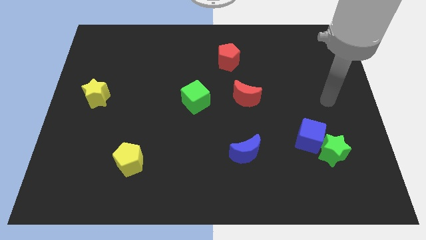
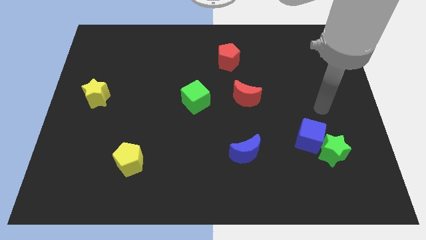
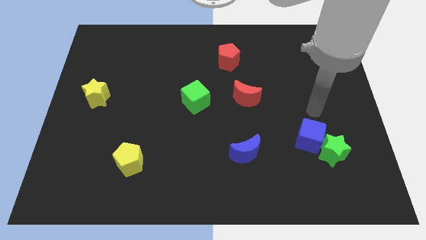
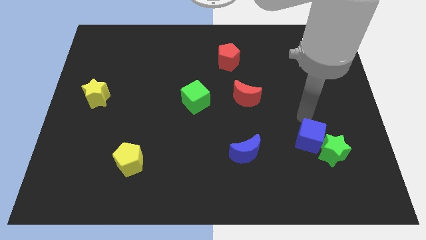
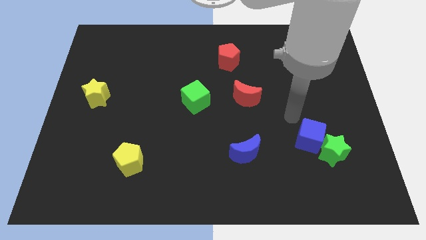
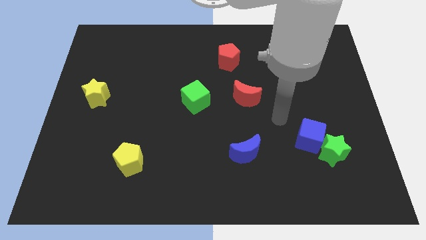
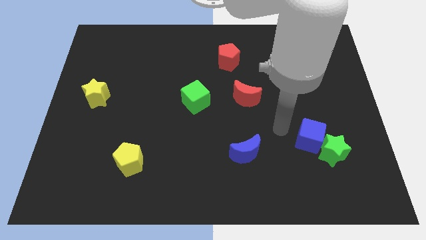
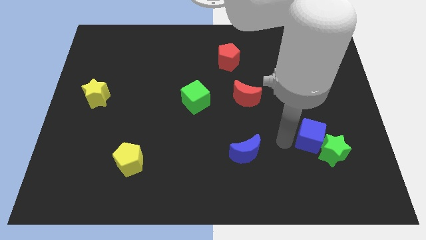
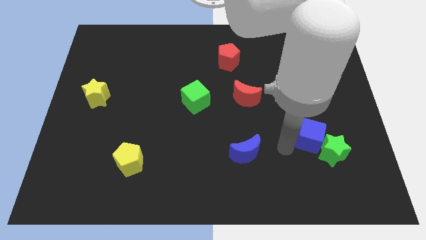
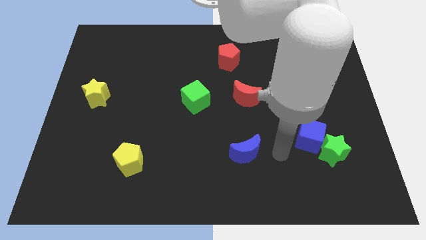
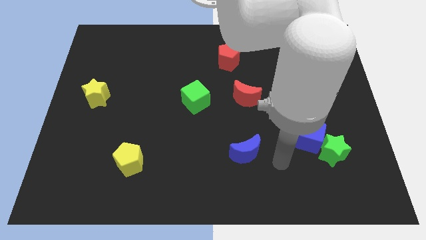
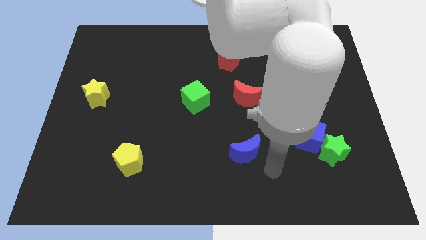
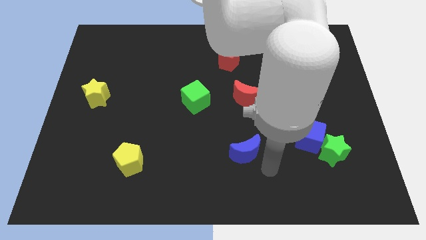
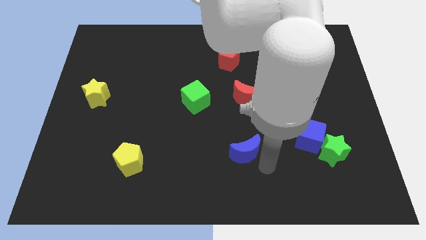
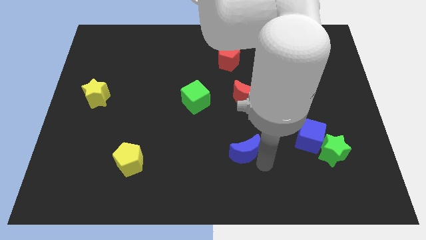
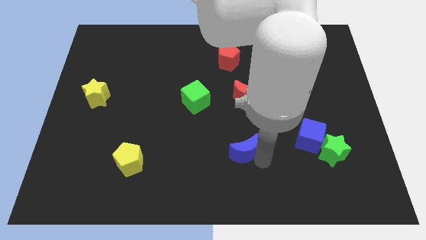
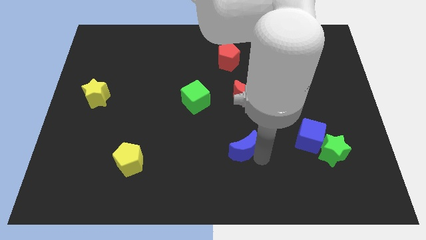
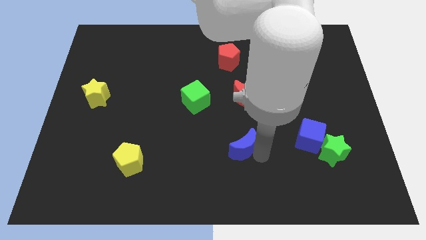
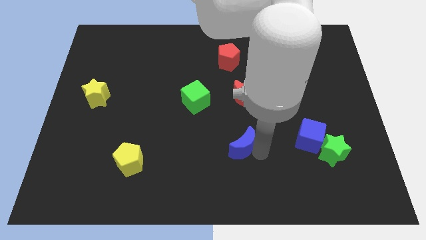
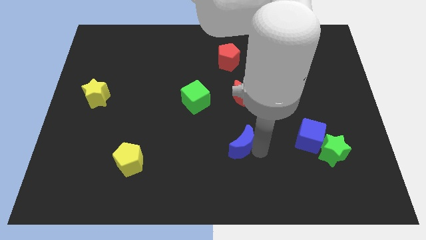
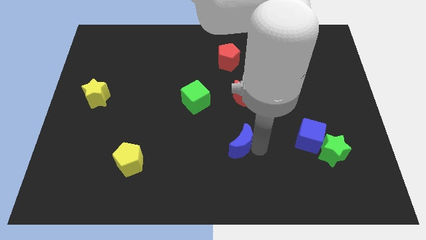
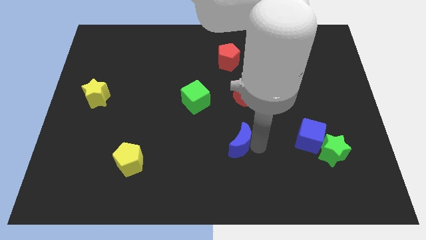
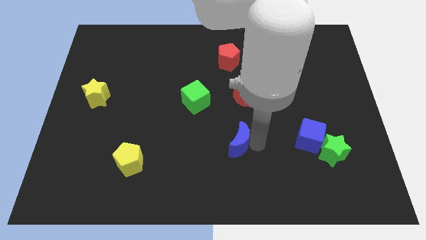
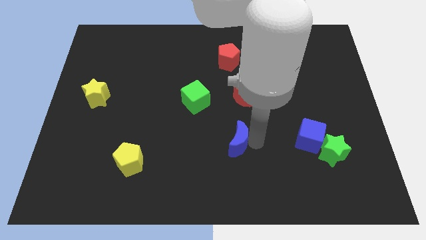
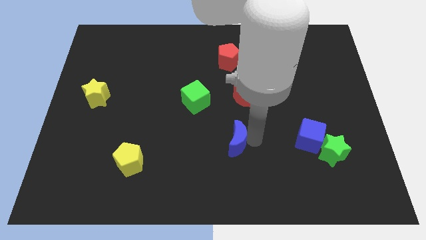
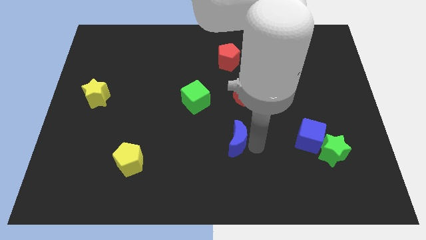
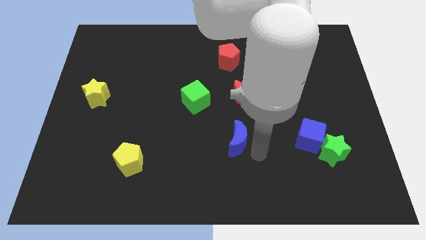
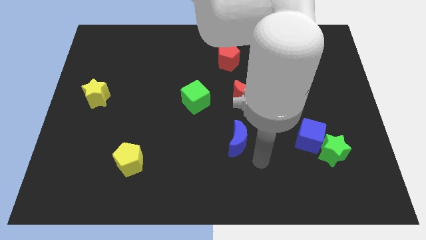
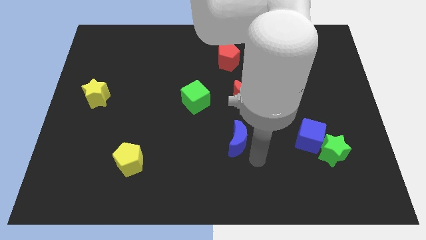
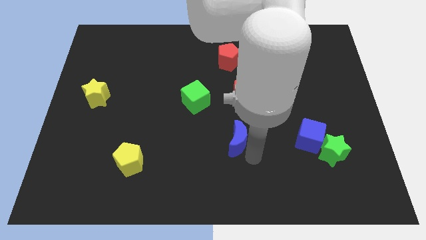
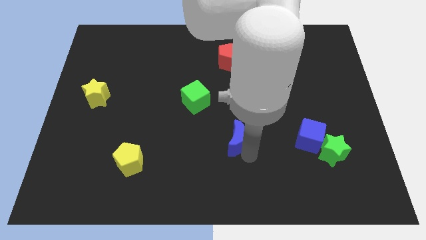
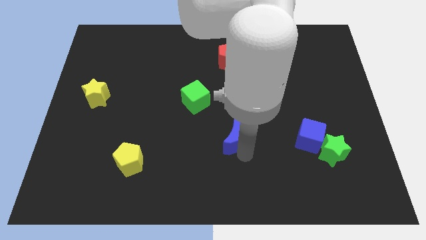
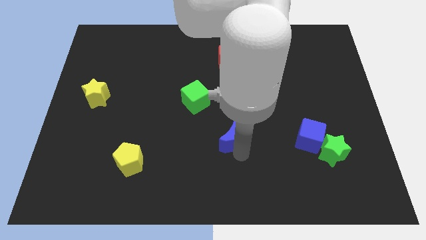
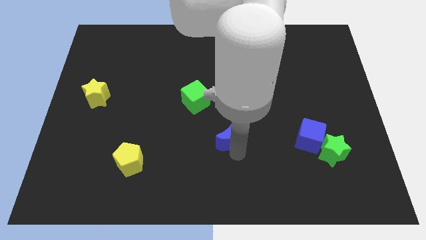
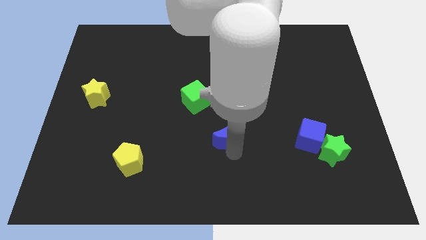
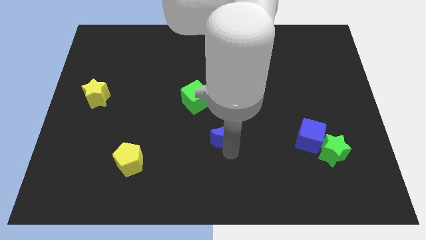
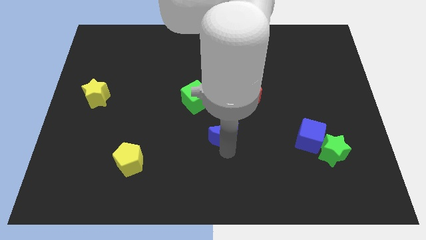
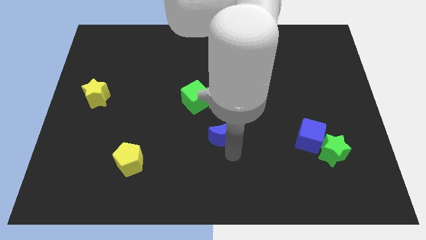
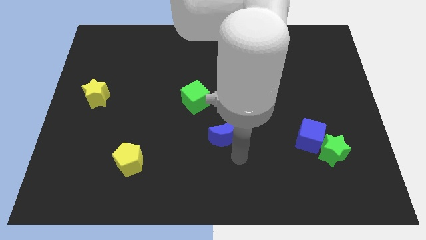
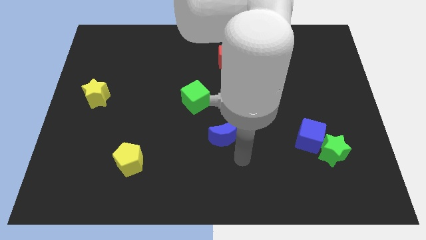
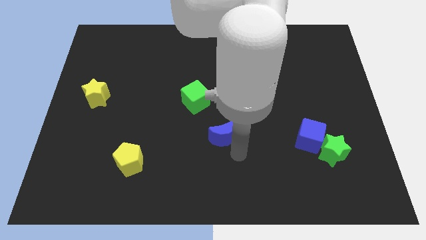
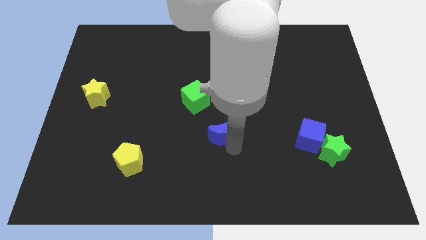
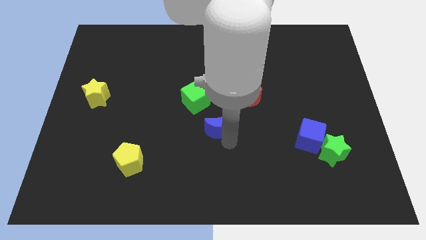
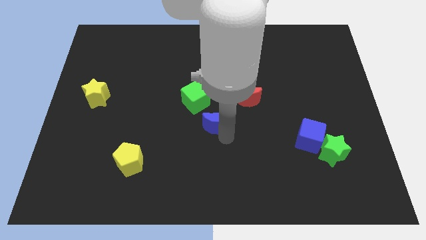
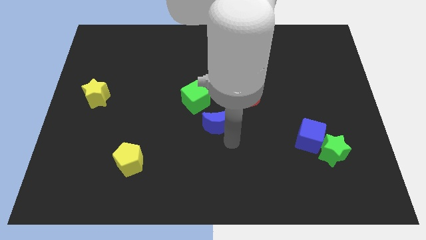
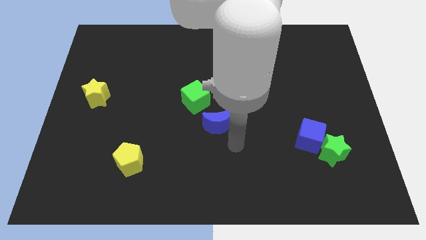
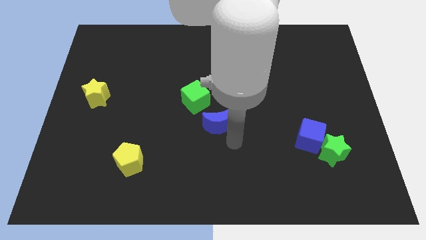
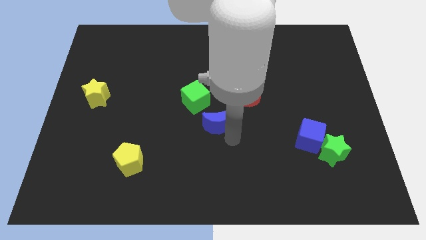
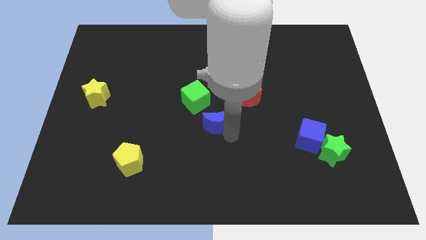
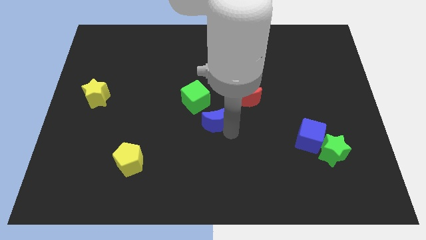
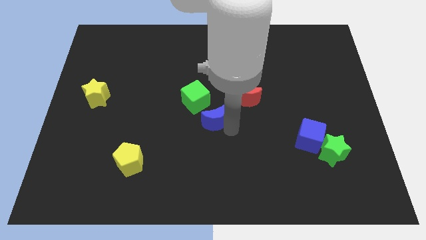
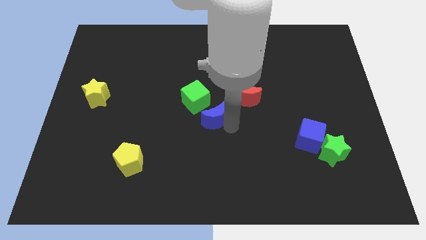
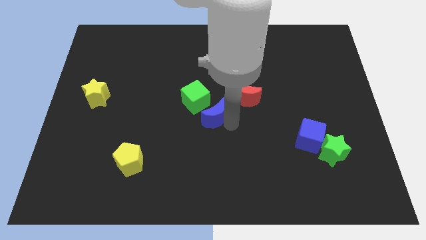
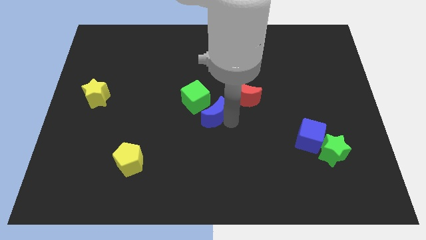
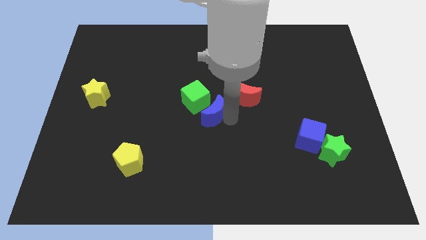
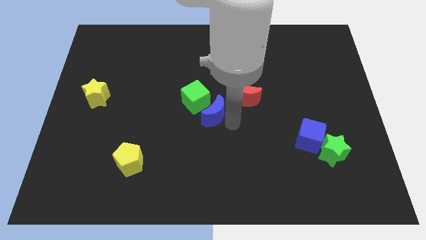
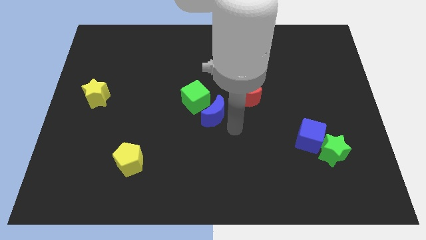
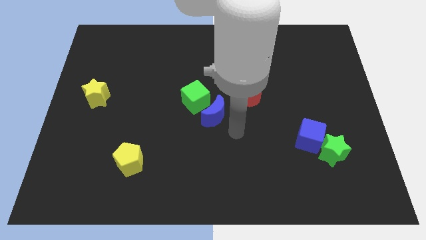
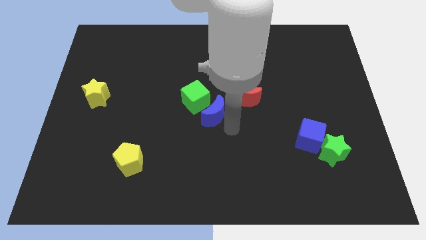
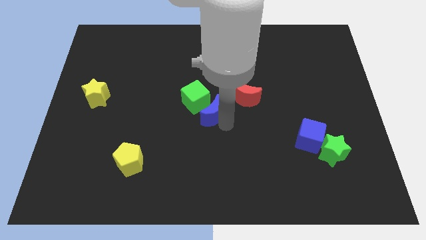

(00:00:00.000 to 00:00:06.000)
put the blue moon to the green cube

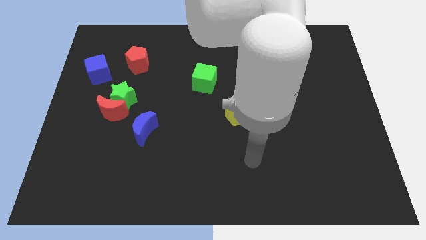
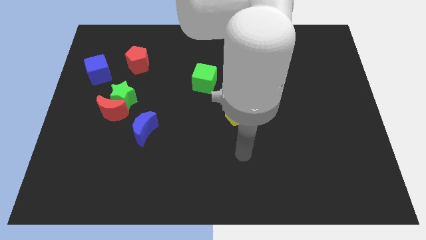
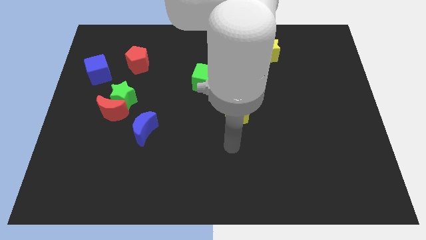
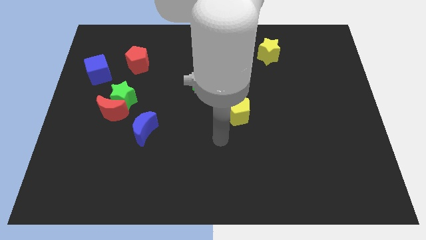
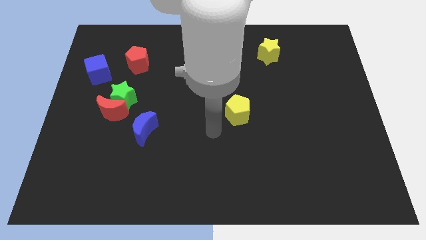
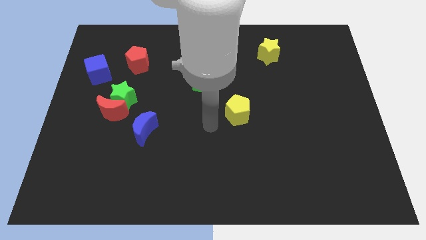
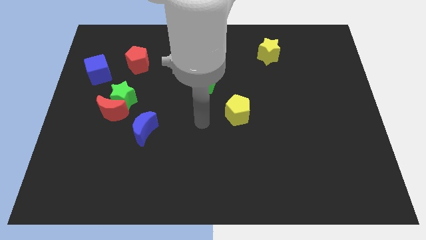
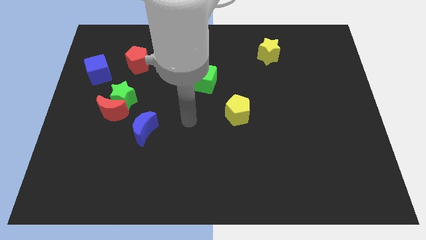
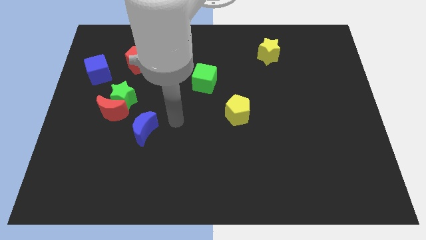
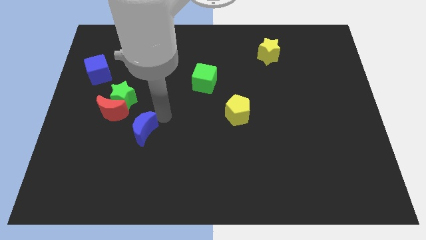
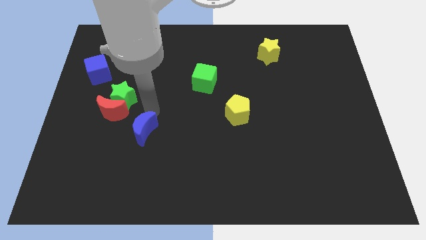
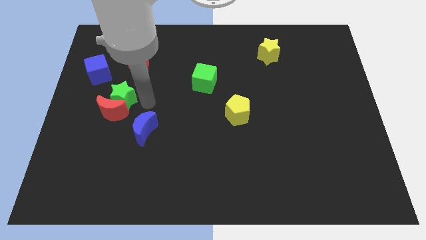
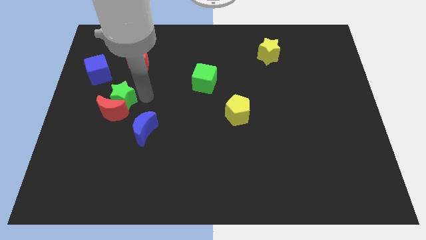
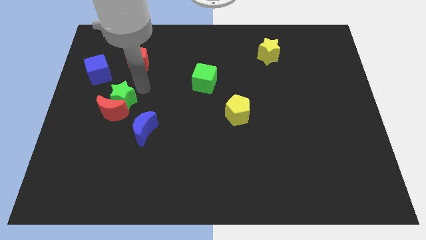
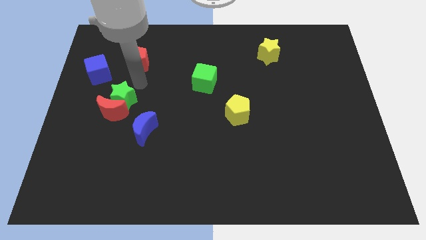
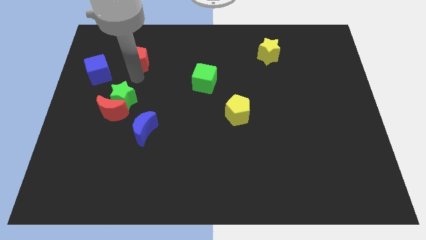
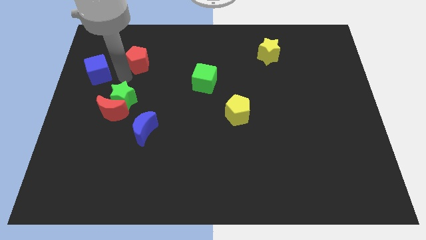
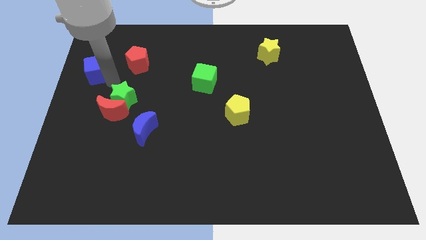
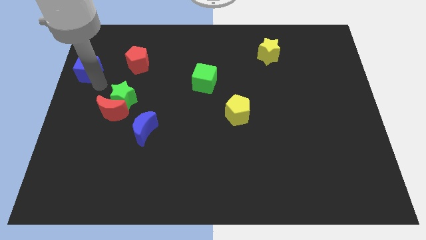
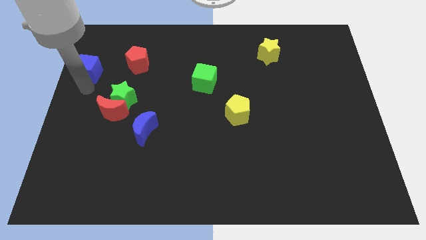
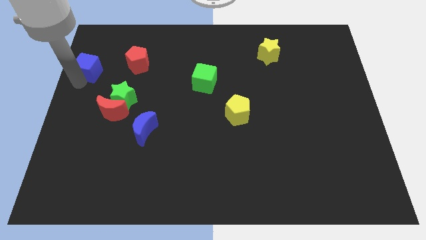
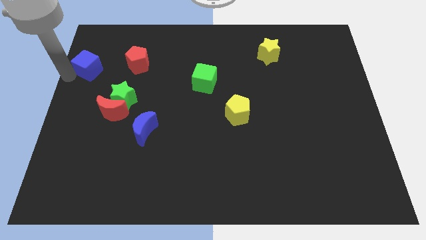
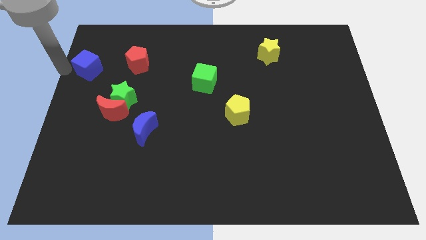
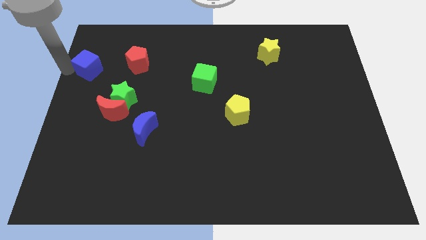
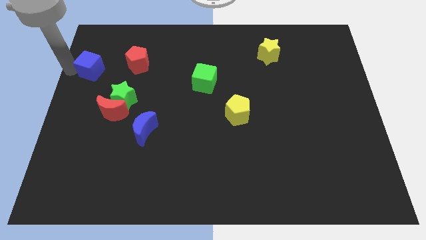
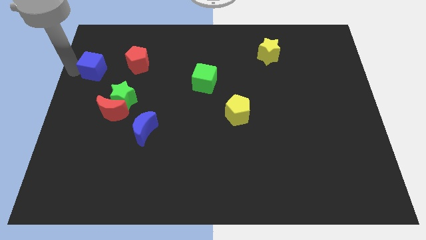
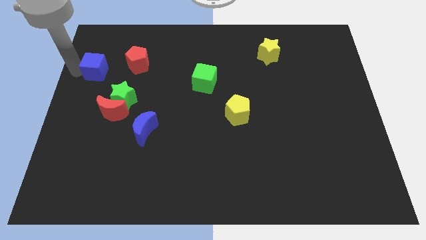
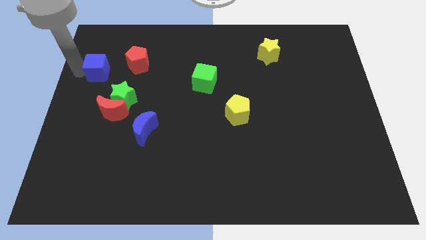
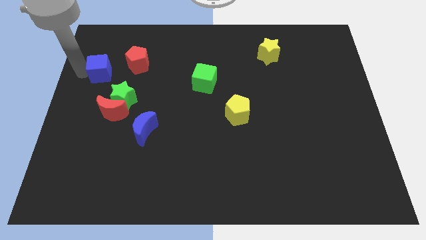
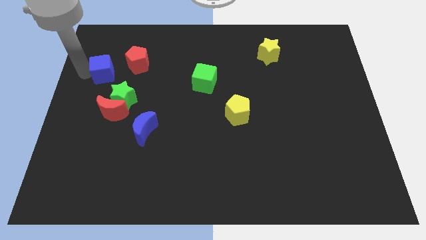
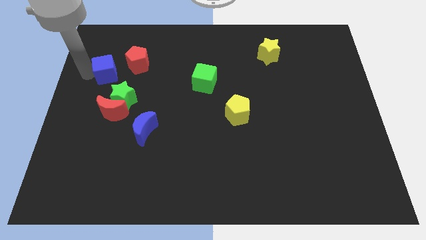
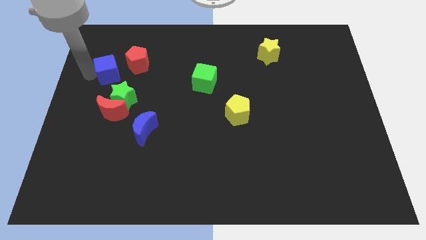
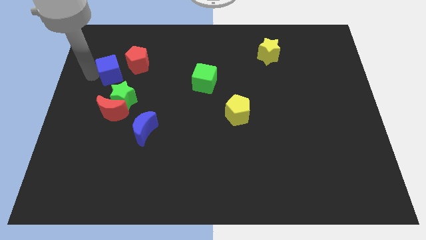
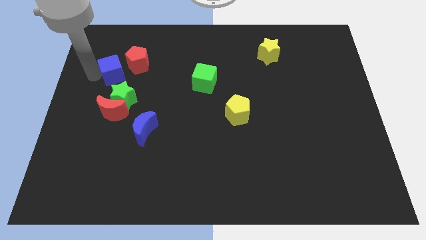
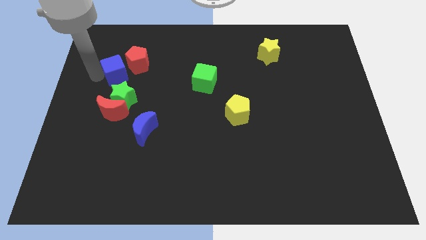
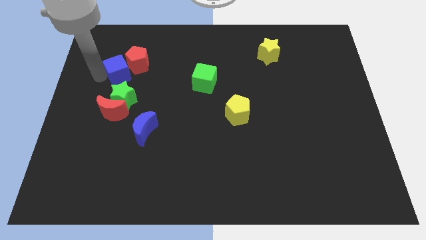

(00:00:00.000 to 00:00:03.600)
move the blue cube to the red pentagon
